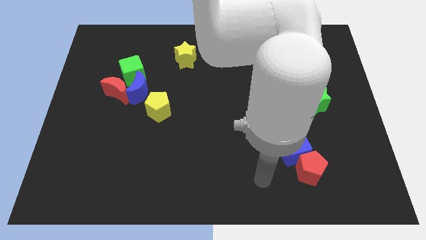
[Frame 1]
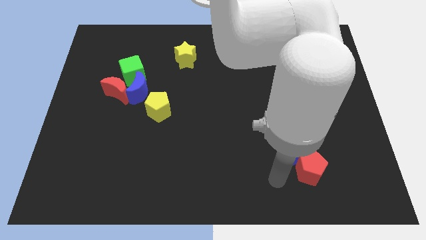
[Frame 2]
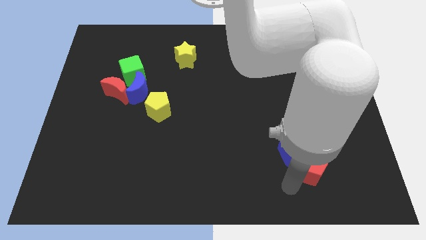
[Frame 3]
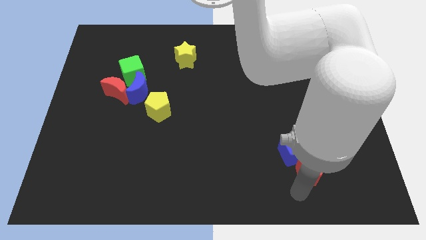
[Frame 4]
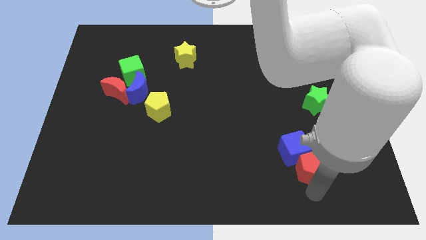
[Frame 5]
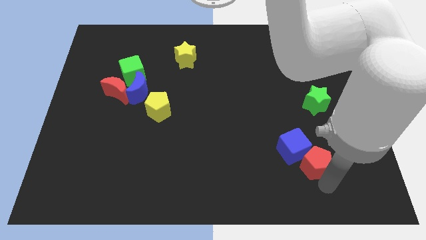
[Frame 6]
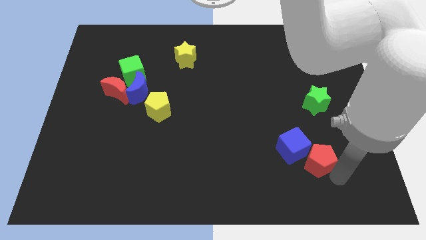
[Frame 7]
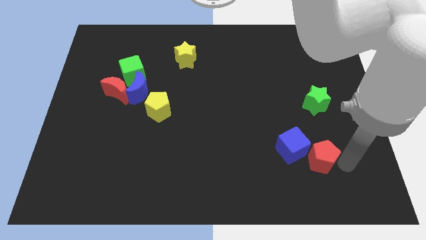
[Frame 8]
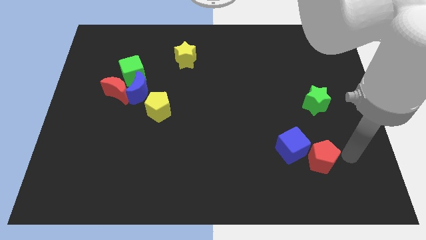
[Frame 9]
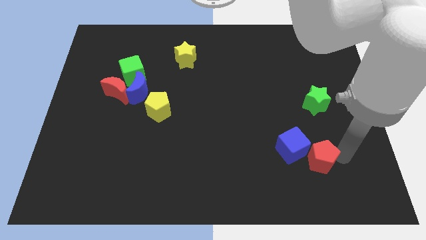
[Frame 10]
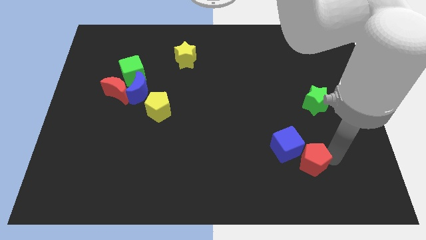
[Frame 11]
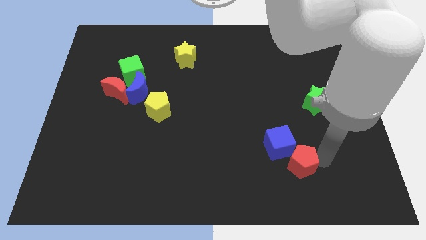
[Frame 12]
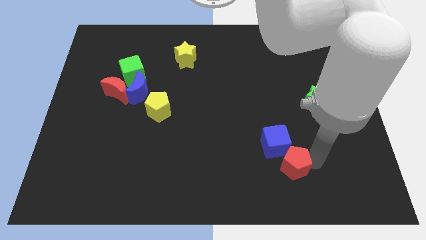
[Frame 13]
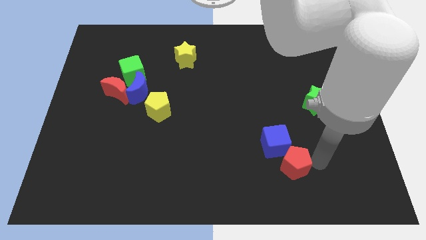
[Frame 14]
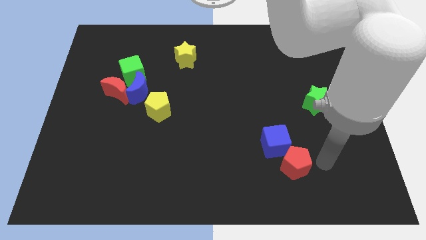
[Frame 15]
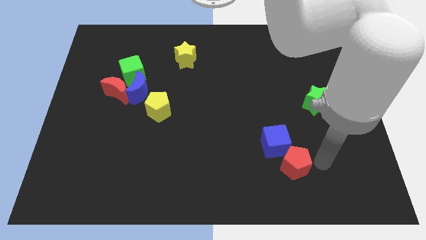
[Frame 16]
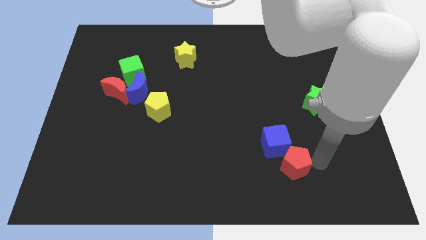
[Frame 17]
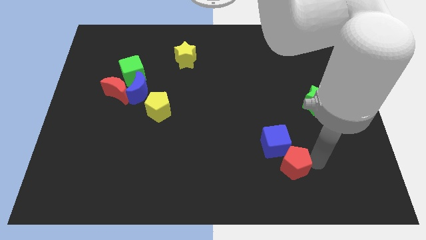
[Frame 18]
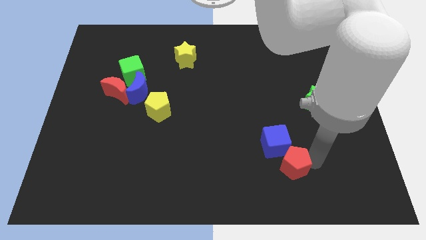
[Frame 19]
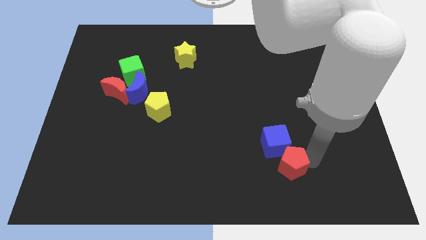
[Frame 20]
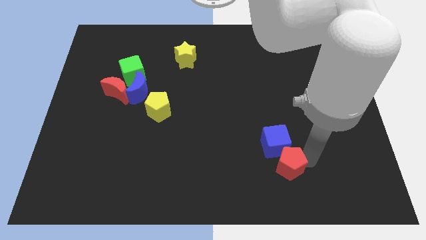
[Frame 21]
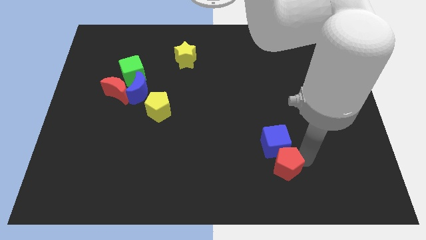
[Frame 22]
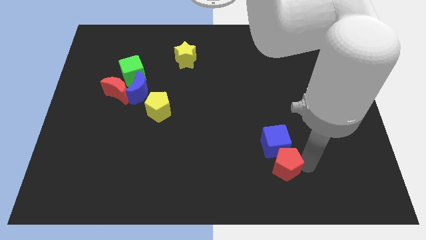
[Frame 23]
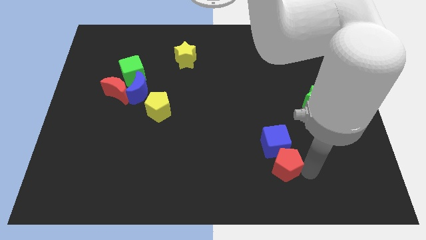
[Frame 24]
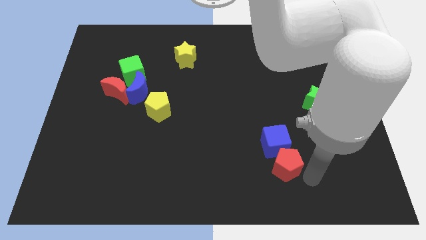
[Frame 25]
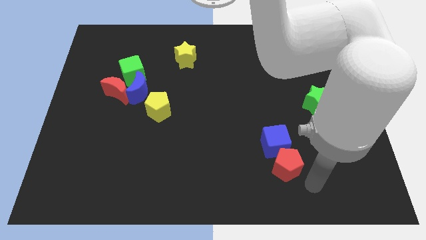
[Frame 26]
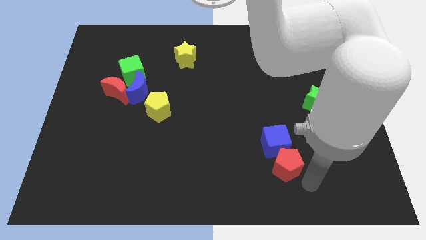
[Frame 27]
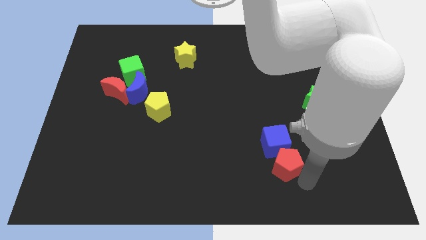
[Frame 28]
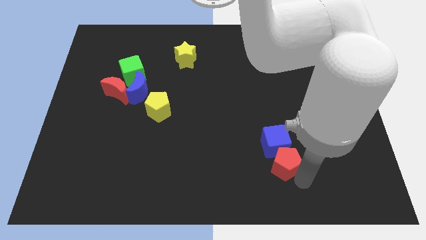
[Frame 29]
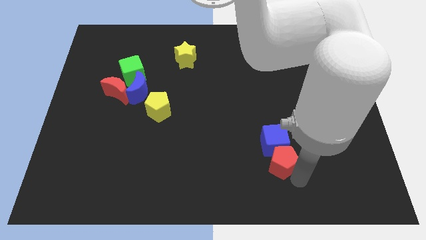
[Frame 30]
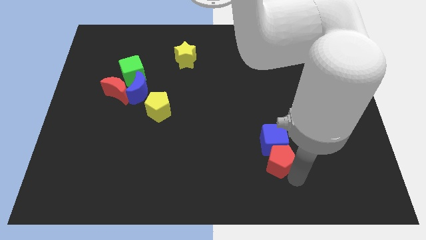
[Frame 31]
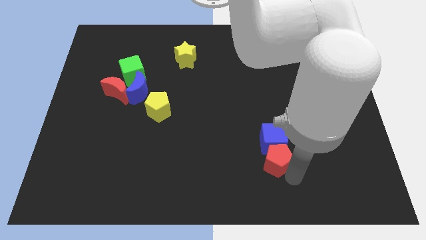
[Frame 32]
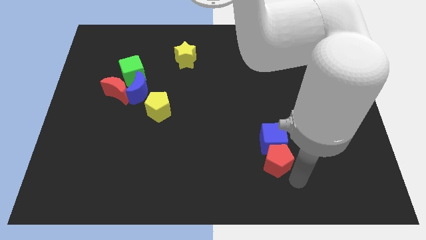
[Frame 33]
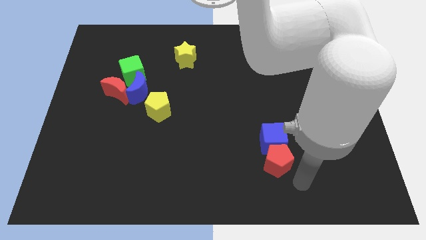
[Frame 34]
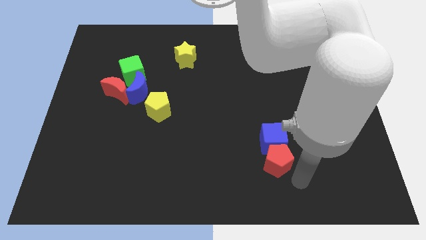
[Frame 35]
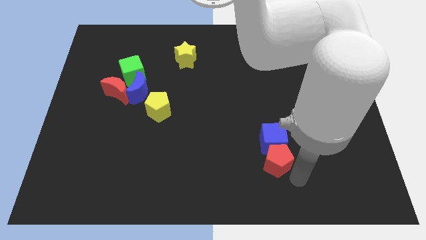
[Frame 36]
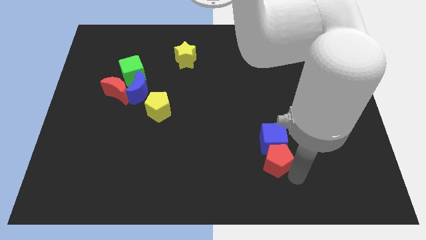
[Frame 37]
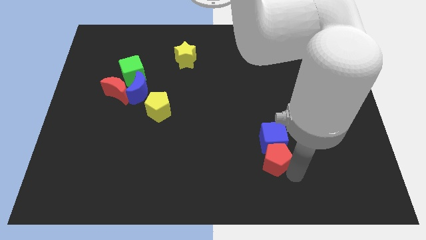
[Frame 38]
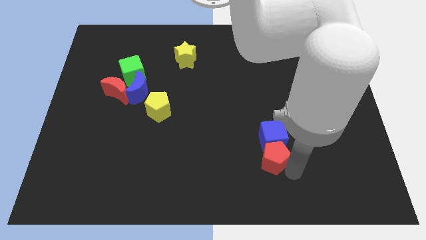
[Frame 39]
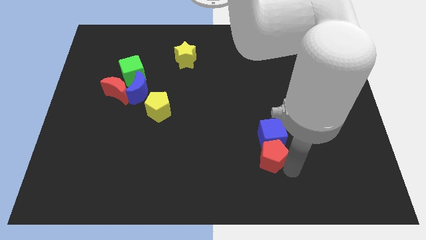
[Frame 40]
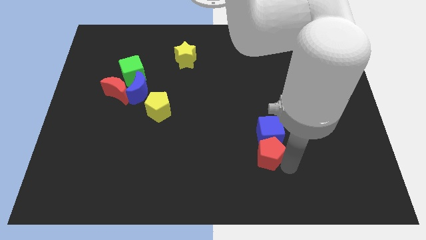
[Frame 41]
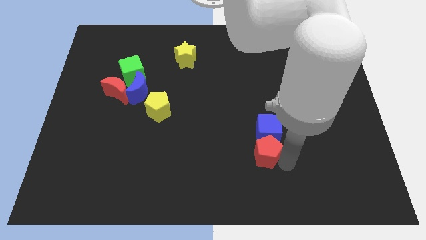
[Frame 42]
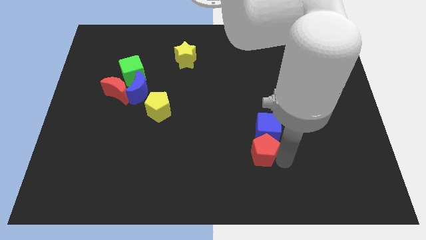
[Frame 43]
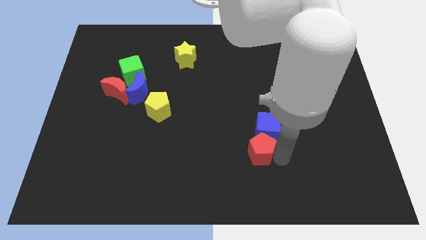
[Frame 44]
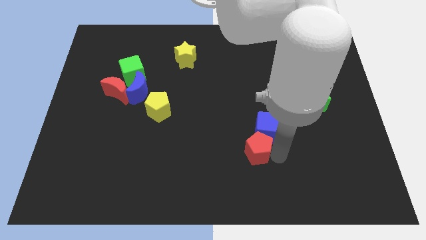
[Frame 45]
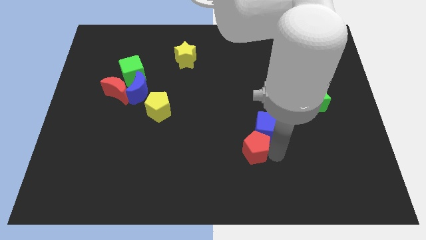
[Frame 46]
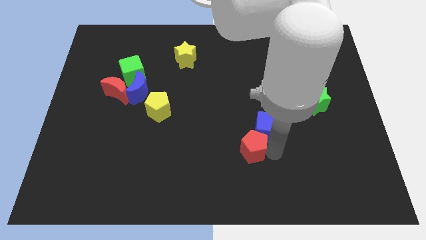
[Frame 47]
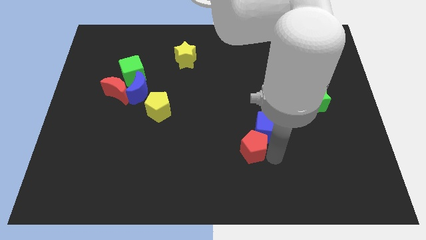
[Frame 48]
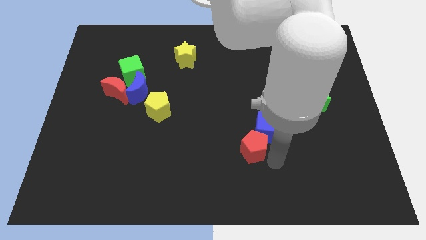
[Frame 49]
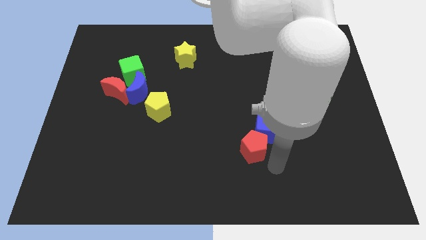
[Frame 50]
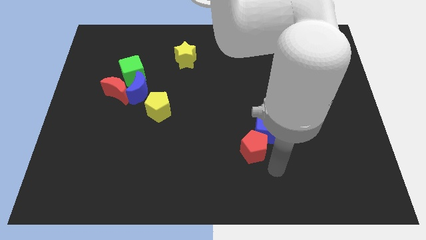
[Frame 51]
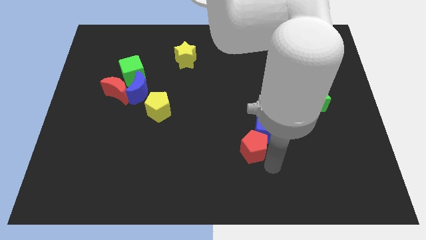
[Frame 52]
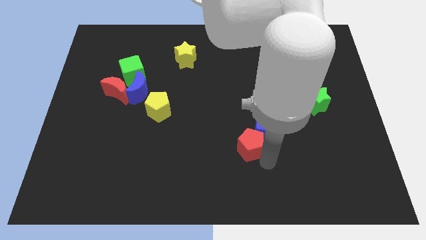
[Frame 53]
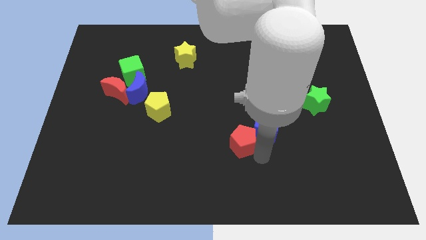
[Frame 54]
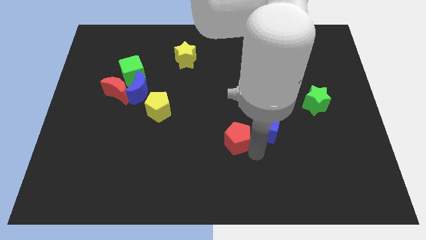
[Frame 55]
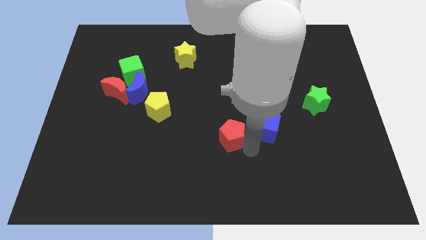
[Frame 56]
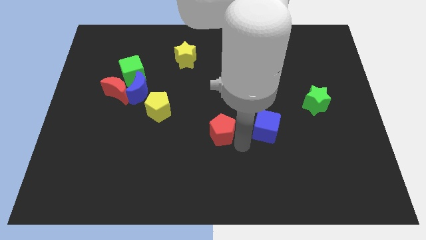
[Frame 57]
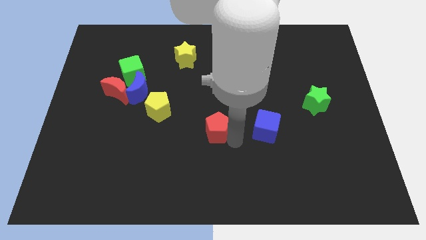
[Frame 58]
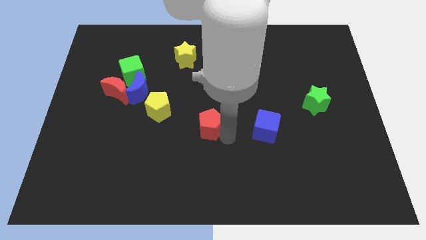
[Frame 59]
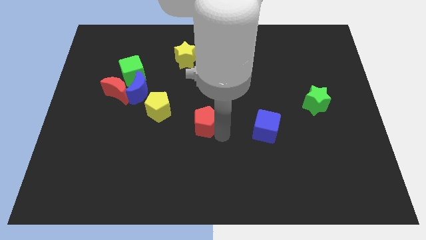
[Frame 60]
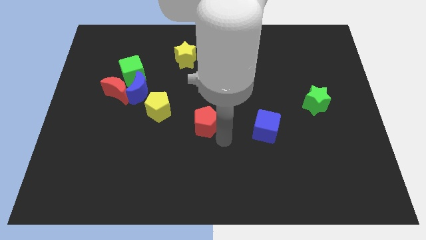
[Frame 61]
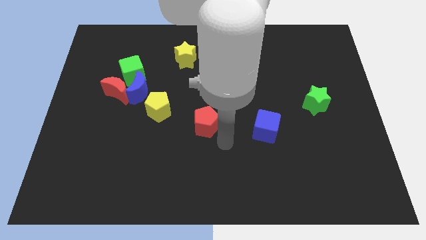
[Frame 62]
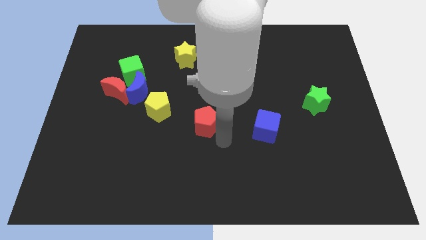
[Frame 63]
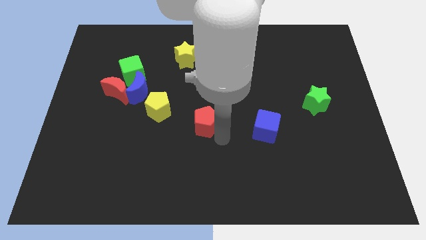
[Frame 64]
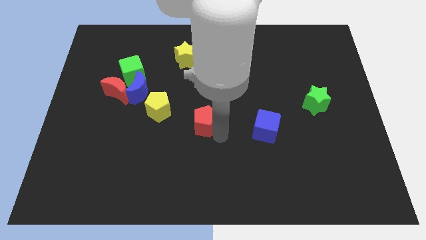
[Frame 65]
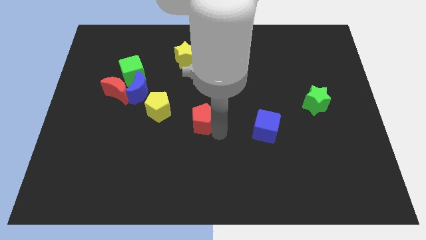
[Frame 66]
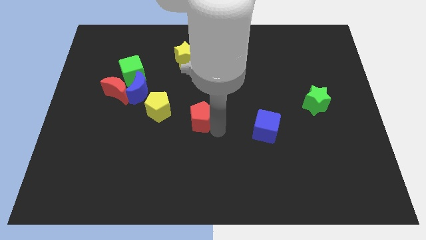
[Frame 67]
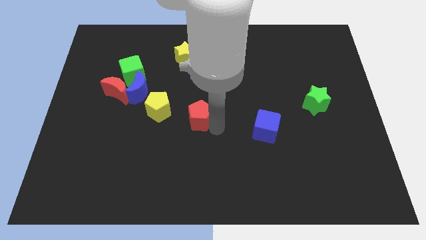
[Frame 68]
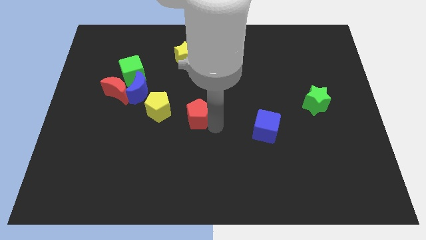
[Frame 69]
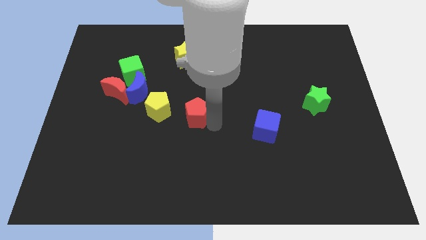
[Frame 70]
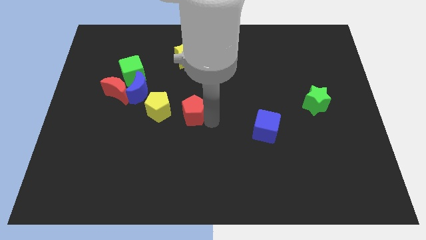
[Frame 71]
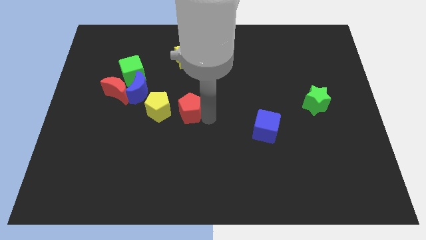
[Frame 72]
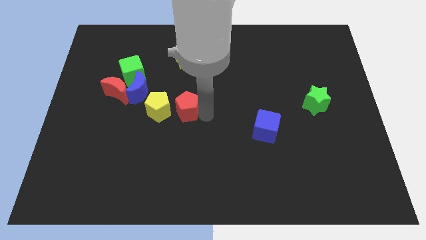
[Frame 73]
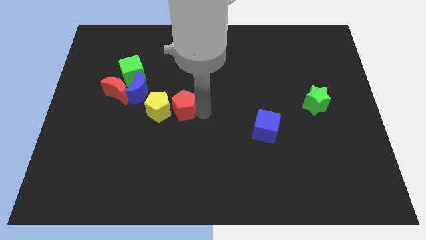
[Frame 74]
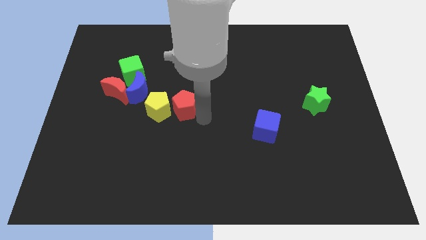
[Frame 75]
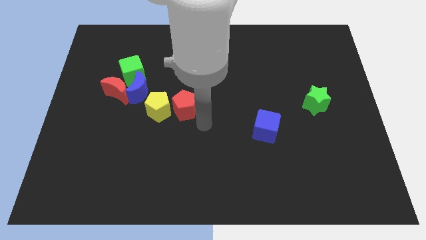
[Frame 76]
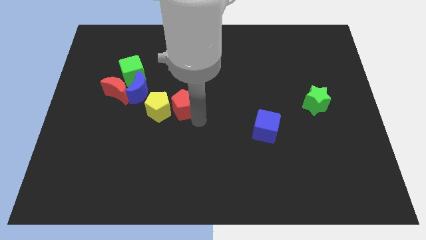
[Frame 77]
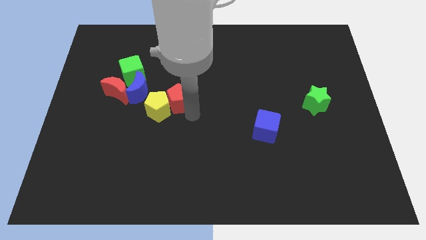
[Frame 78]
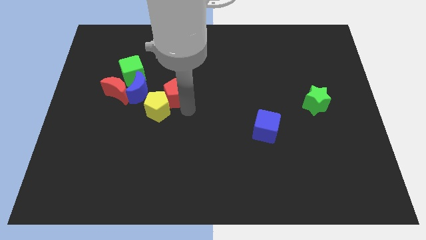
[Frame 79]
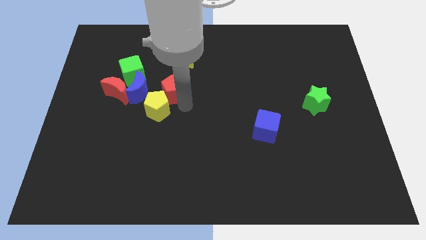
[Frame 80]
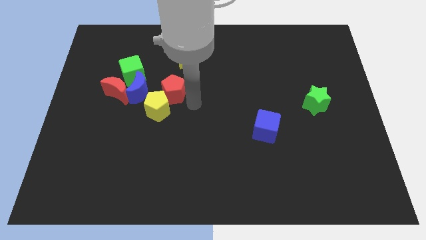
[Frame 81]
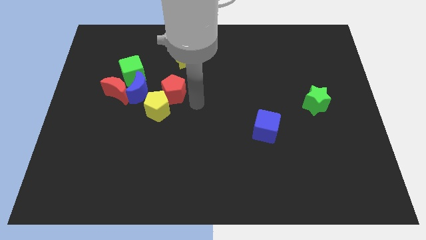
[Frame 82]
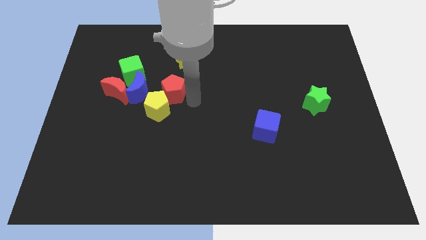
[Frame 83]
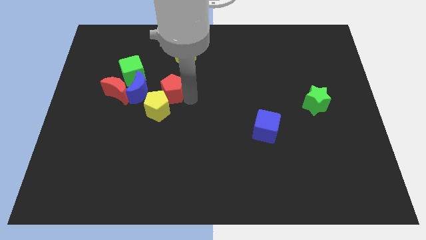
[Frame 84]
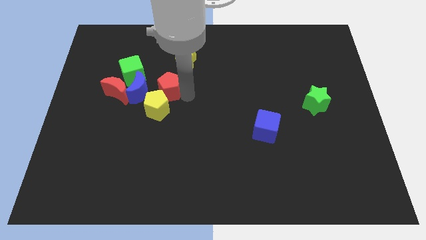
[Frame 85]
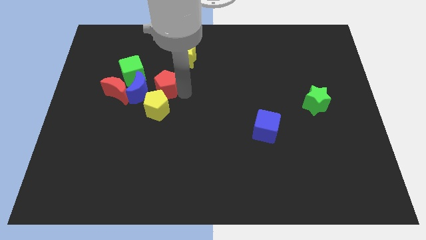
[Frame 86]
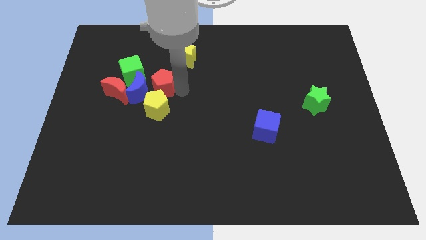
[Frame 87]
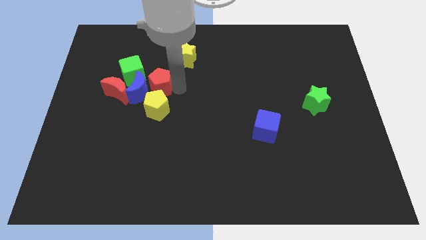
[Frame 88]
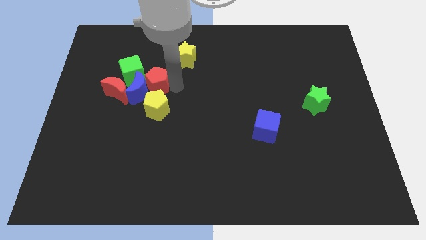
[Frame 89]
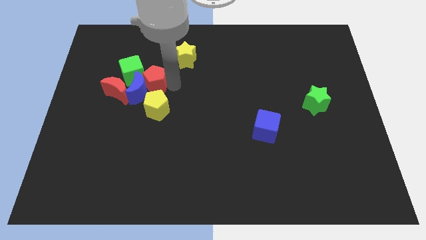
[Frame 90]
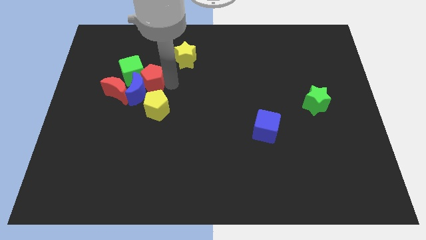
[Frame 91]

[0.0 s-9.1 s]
slide the red pentagon to the green cube
